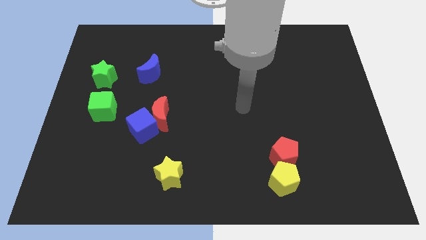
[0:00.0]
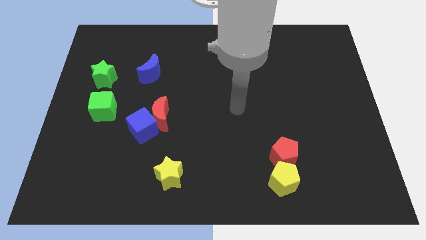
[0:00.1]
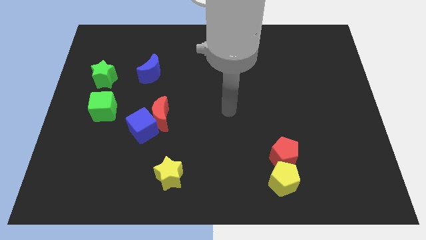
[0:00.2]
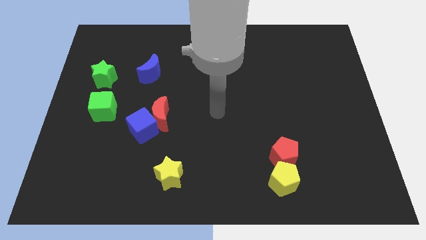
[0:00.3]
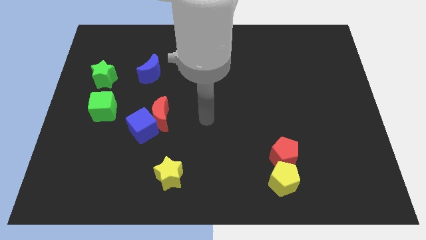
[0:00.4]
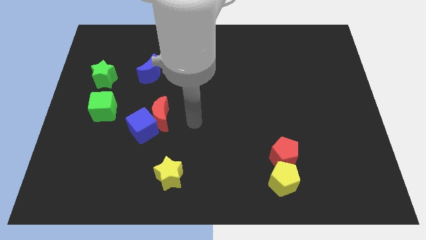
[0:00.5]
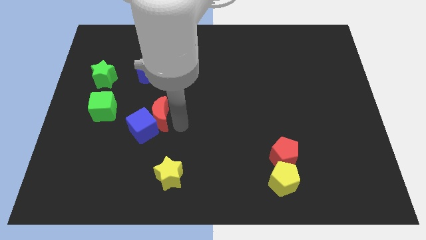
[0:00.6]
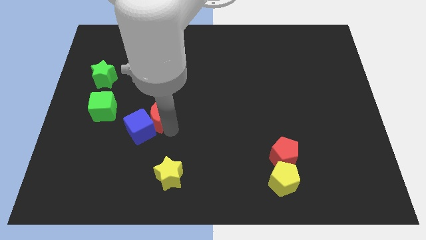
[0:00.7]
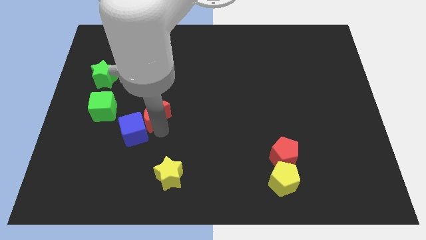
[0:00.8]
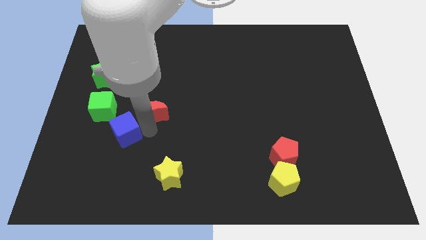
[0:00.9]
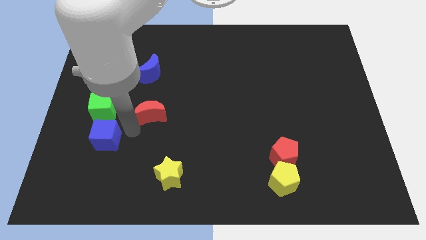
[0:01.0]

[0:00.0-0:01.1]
pull the red moon apart from the blue cube

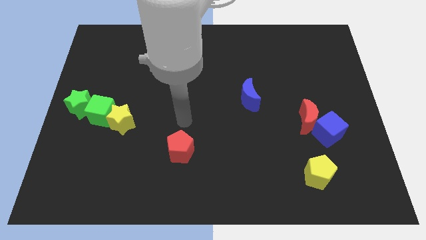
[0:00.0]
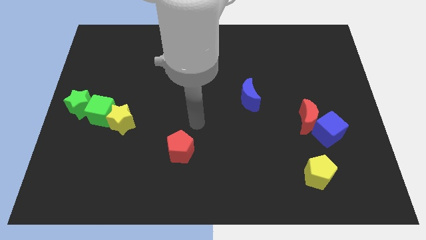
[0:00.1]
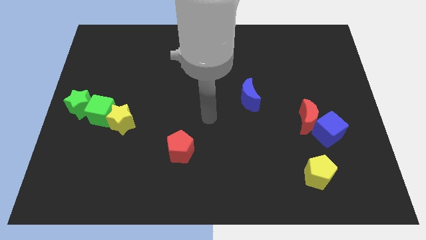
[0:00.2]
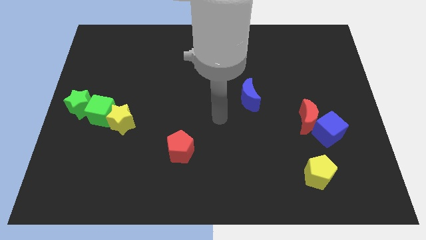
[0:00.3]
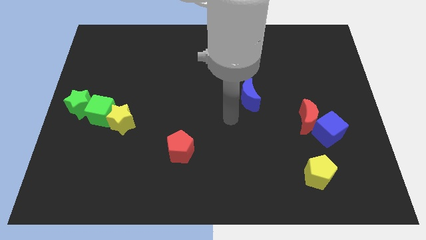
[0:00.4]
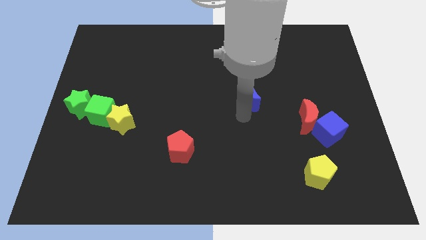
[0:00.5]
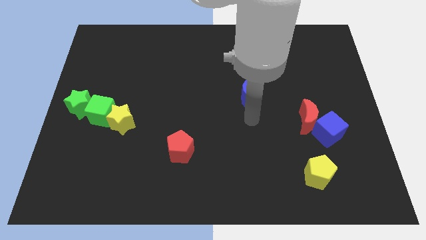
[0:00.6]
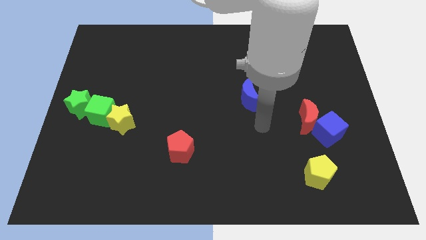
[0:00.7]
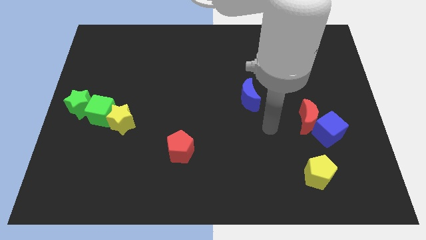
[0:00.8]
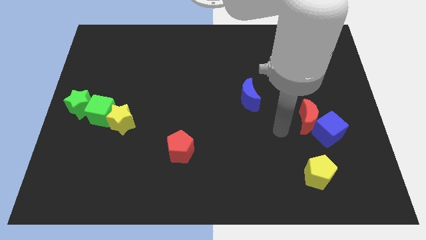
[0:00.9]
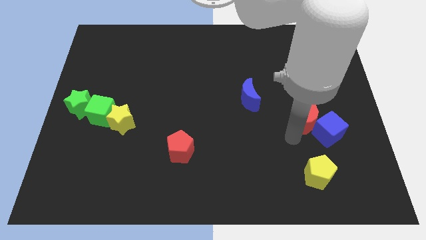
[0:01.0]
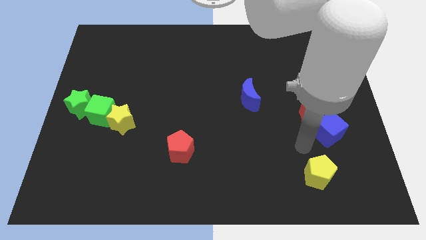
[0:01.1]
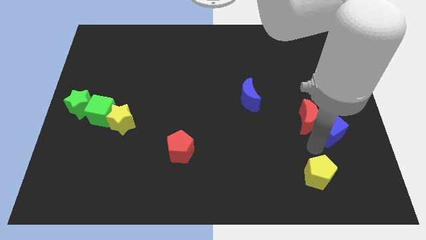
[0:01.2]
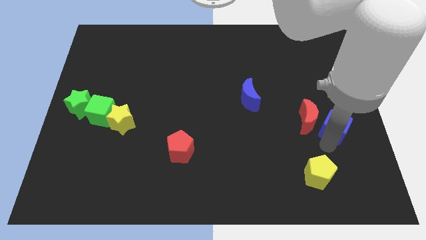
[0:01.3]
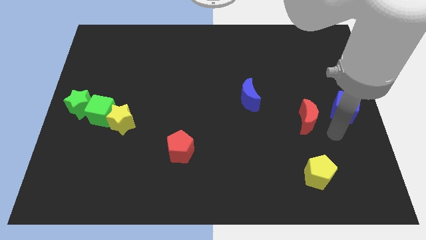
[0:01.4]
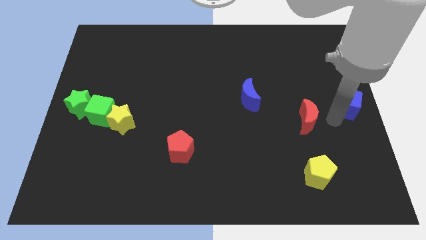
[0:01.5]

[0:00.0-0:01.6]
separate the red moon from the blue cube

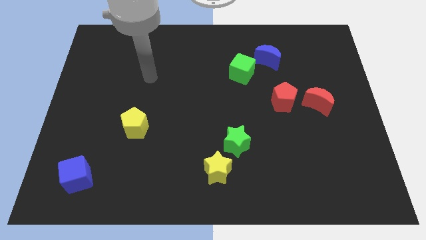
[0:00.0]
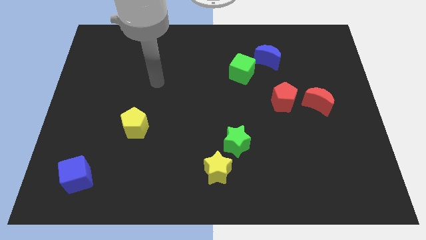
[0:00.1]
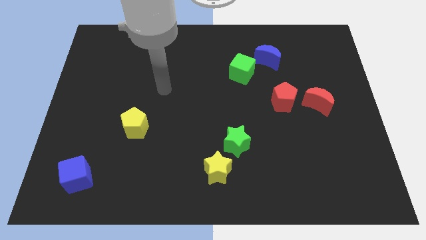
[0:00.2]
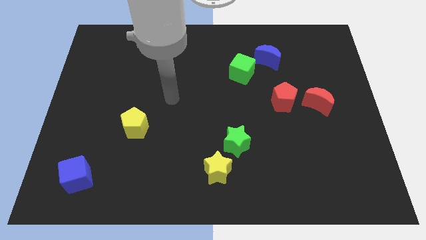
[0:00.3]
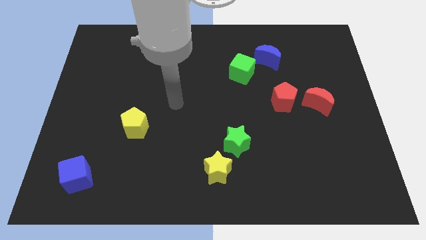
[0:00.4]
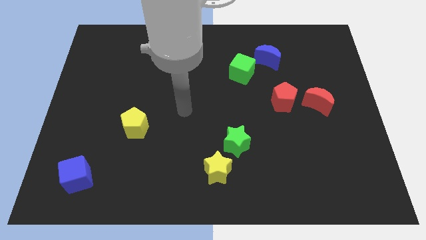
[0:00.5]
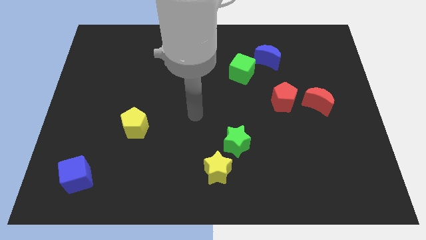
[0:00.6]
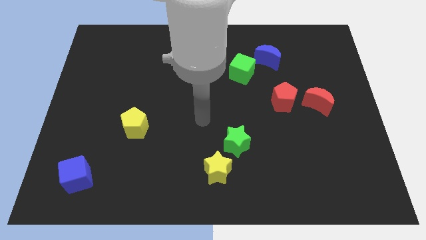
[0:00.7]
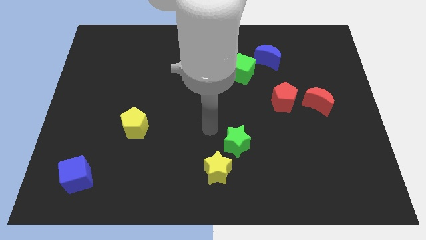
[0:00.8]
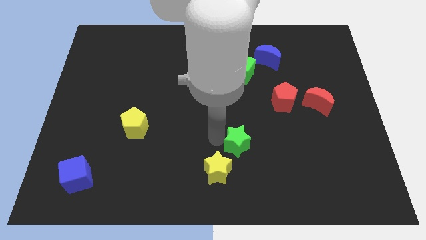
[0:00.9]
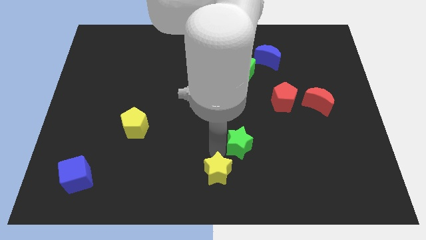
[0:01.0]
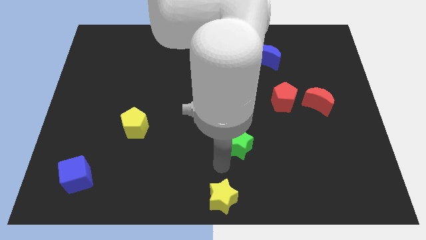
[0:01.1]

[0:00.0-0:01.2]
separate the green star from the yellow star

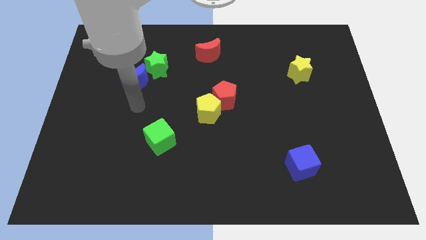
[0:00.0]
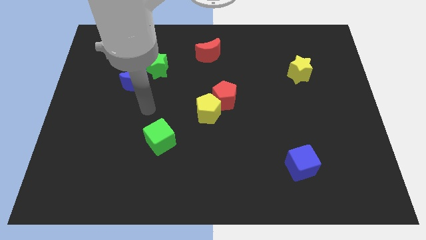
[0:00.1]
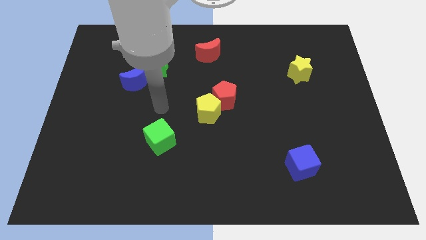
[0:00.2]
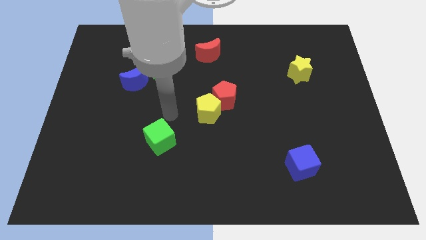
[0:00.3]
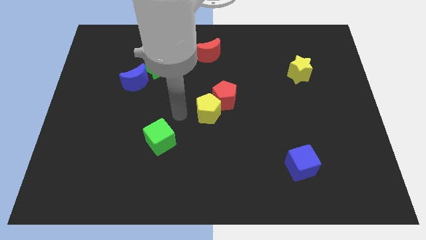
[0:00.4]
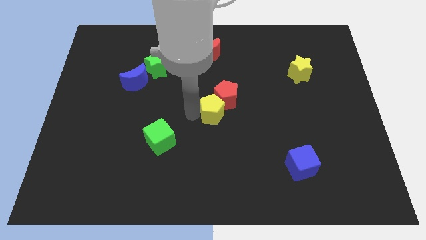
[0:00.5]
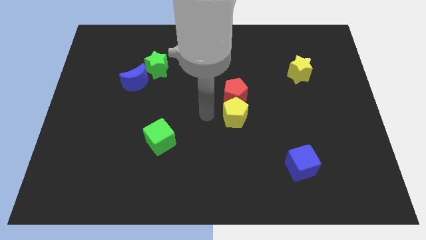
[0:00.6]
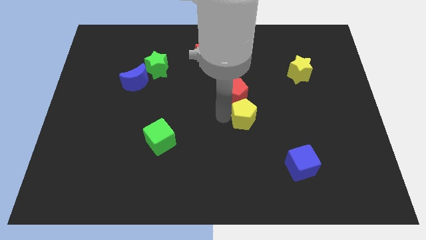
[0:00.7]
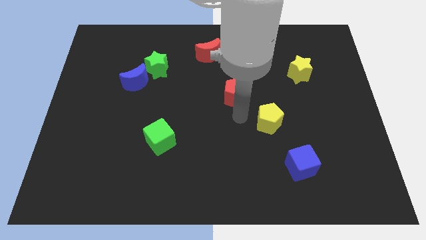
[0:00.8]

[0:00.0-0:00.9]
move the red pentagon away from the yellow pentagon

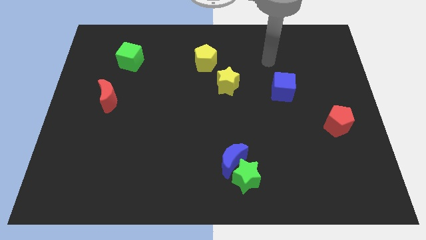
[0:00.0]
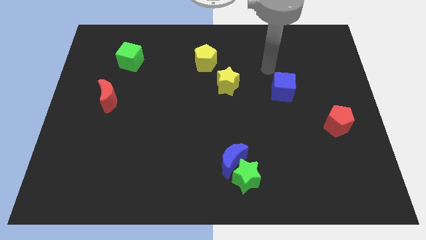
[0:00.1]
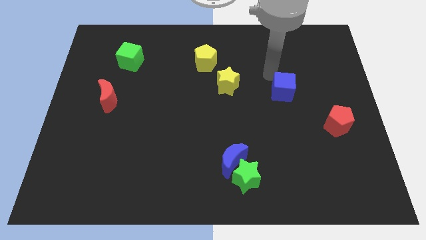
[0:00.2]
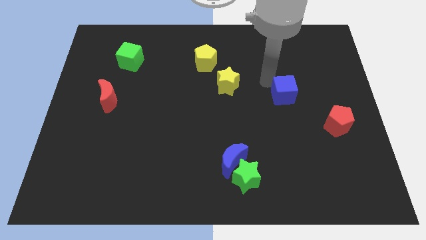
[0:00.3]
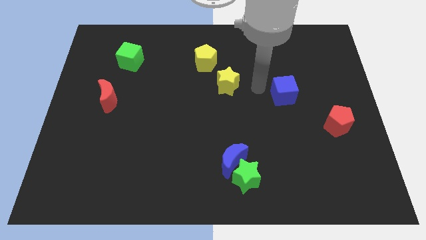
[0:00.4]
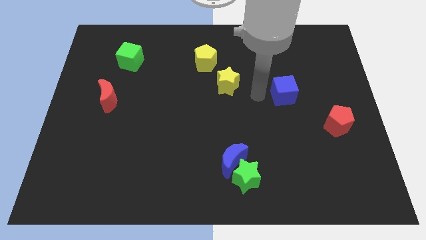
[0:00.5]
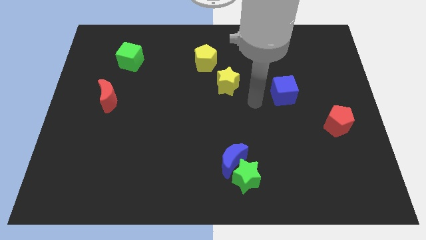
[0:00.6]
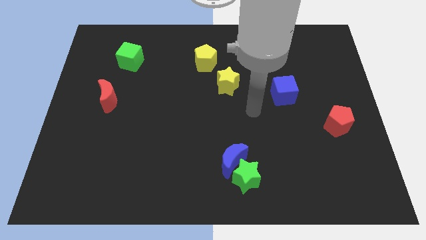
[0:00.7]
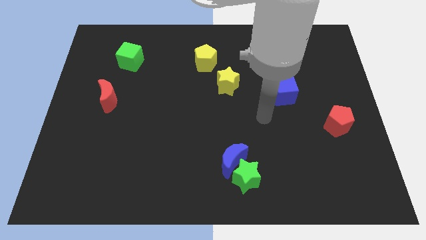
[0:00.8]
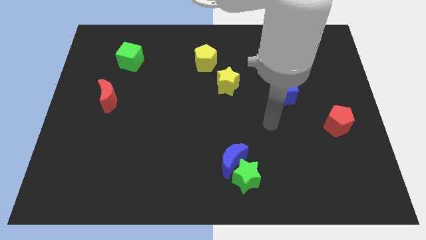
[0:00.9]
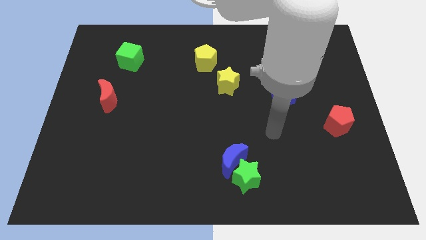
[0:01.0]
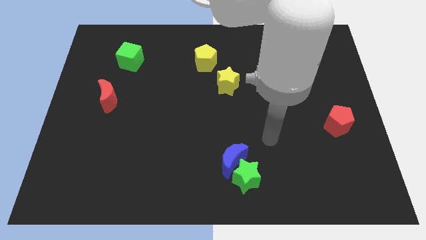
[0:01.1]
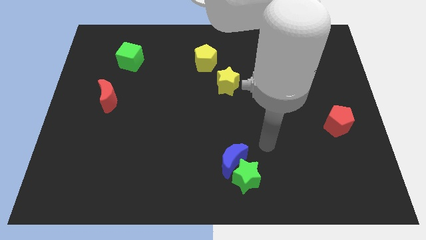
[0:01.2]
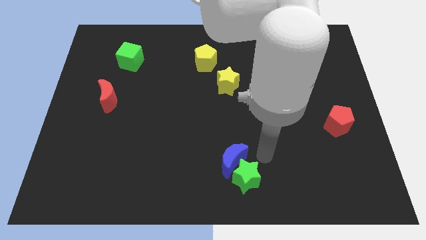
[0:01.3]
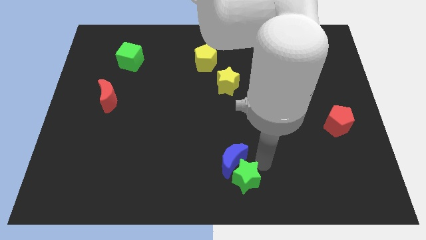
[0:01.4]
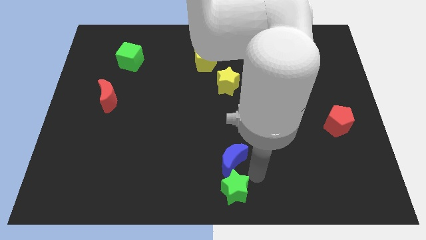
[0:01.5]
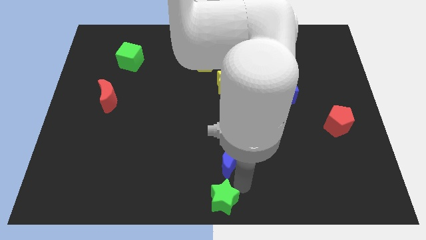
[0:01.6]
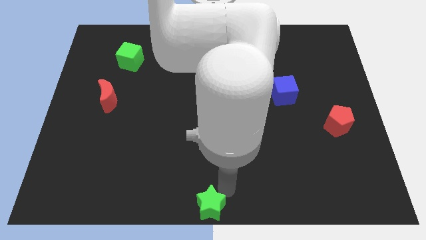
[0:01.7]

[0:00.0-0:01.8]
pull the blue moon apart from the green star

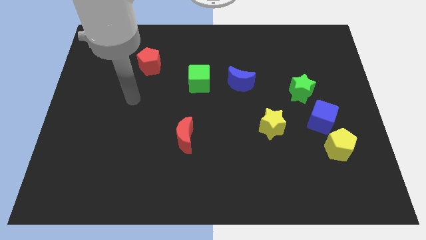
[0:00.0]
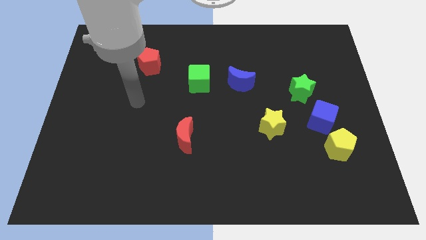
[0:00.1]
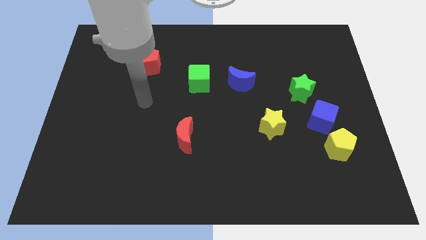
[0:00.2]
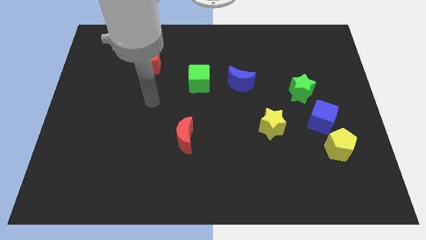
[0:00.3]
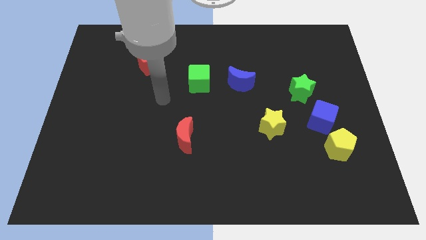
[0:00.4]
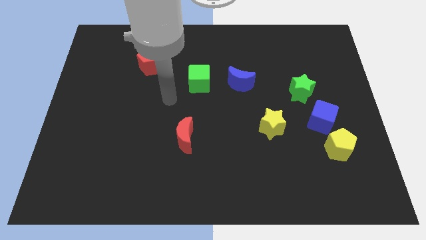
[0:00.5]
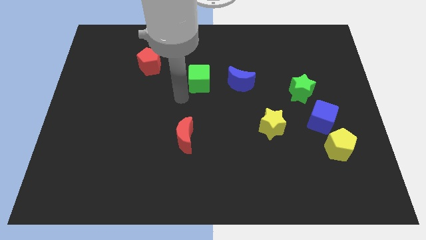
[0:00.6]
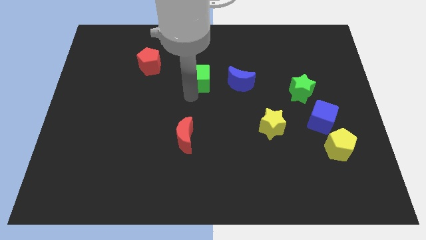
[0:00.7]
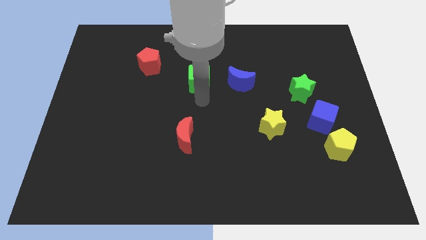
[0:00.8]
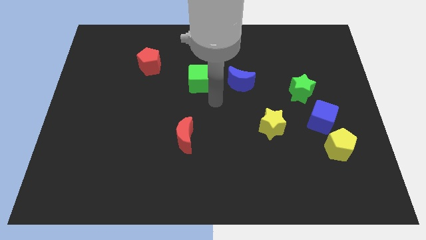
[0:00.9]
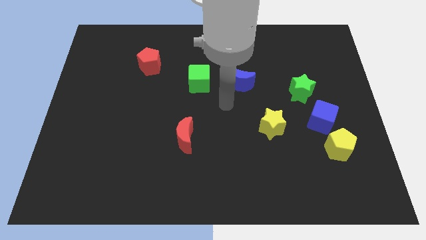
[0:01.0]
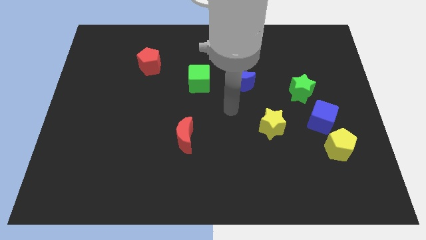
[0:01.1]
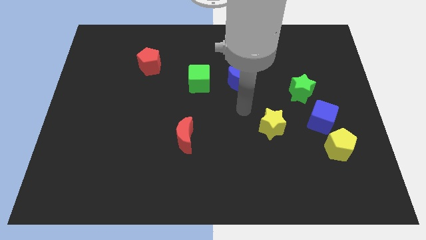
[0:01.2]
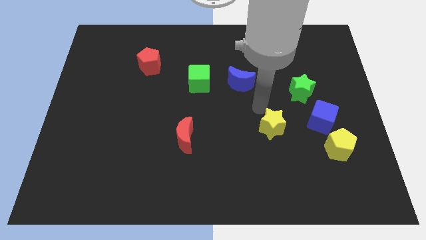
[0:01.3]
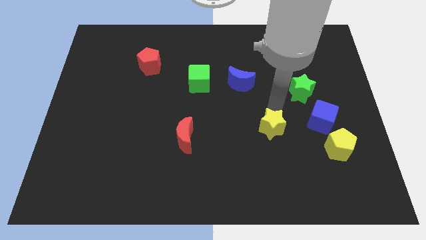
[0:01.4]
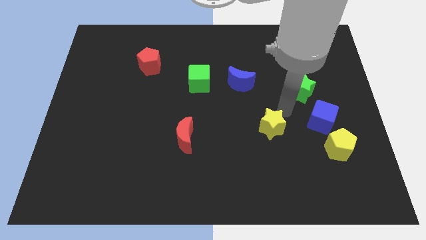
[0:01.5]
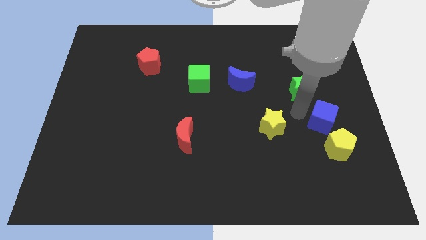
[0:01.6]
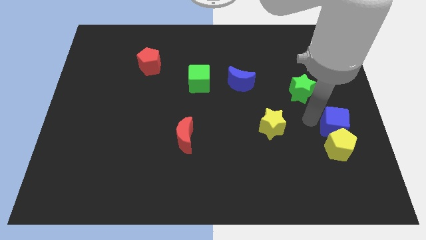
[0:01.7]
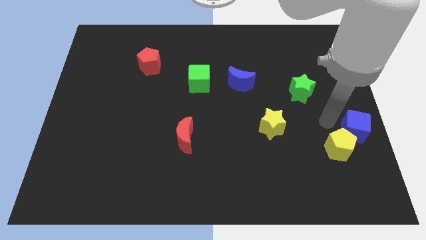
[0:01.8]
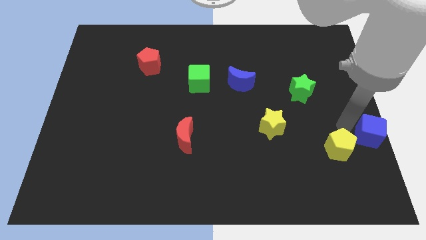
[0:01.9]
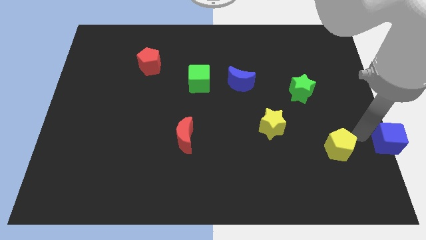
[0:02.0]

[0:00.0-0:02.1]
move the yellow pentagon away from the blue cube

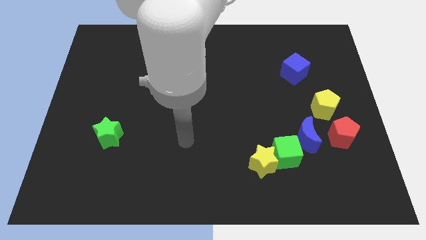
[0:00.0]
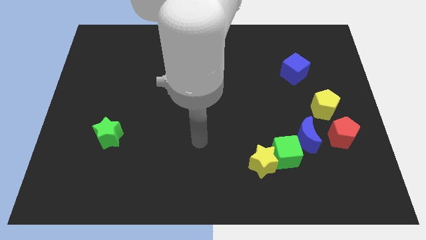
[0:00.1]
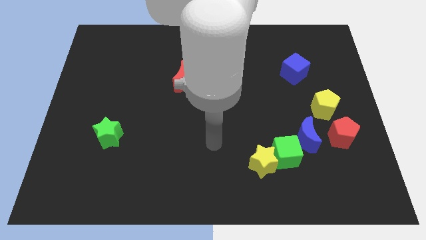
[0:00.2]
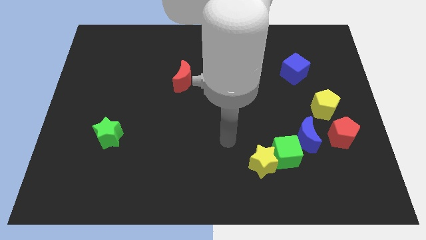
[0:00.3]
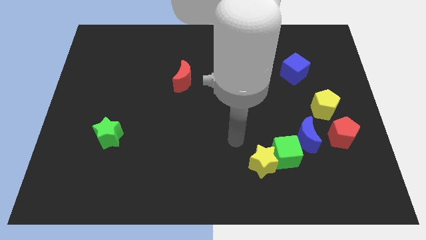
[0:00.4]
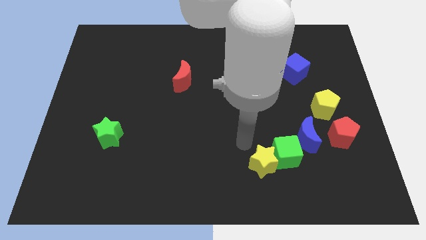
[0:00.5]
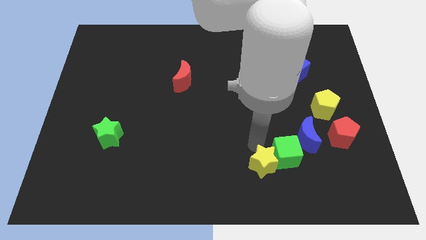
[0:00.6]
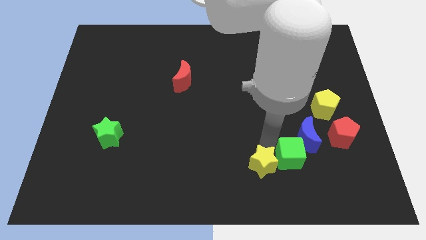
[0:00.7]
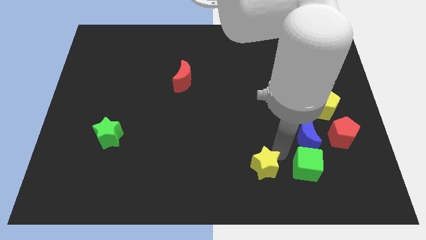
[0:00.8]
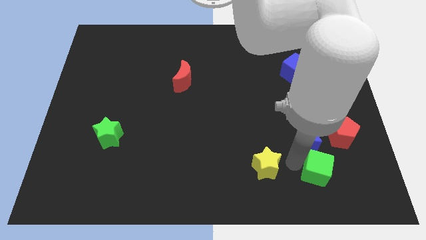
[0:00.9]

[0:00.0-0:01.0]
separate the yellow star from the green cube
